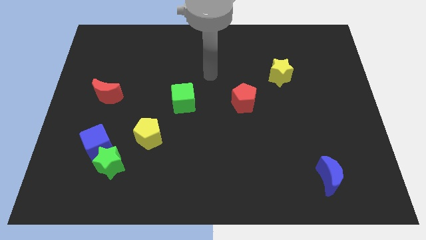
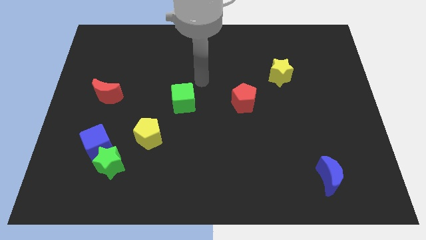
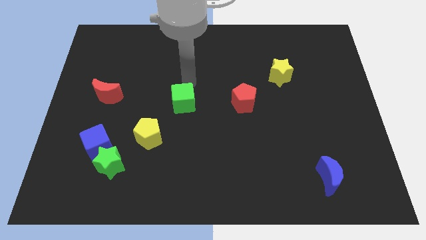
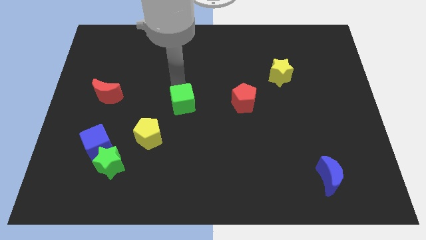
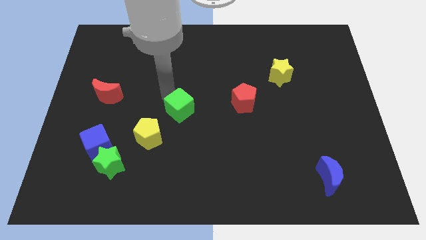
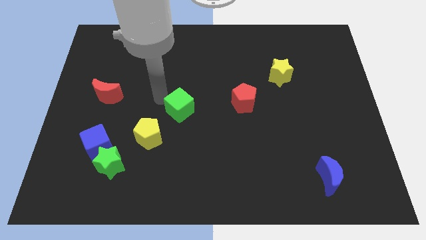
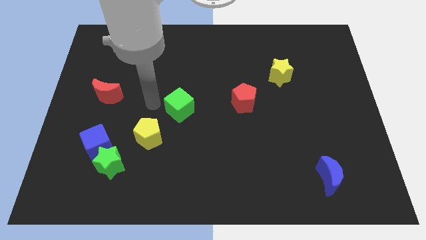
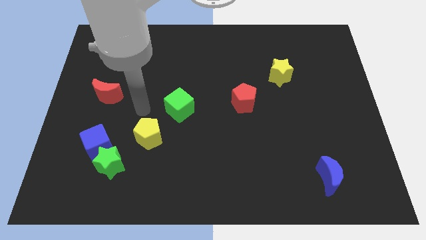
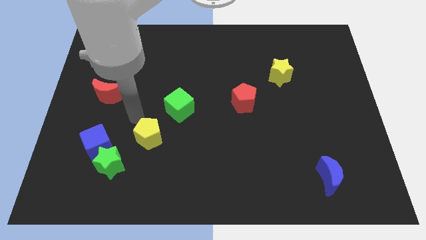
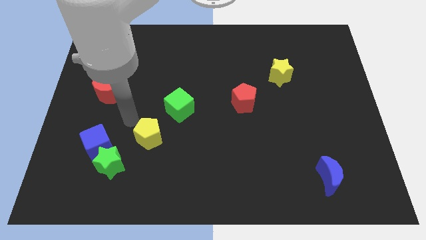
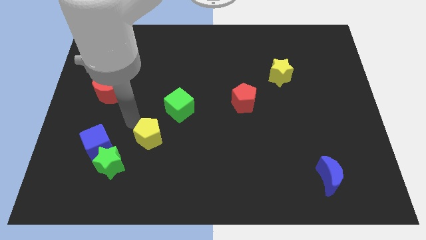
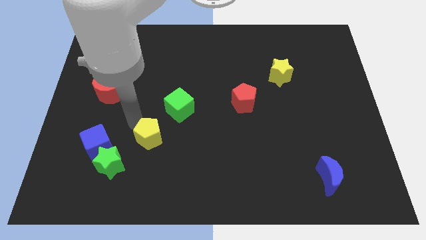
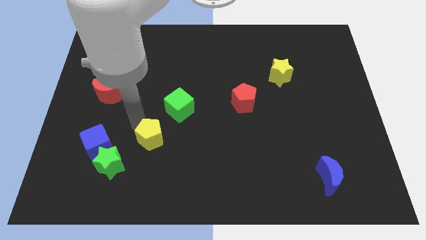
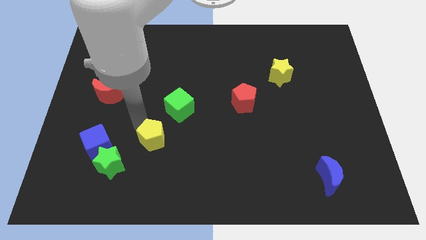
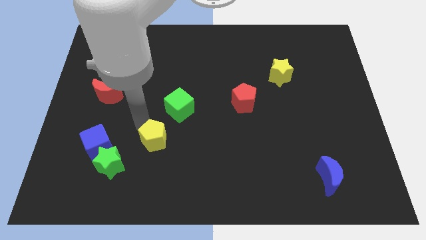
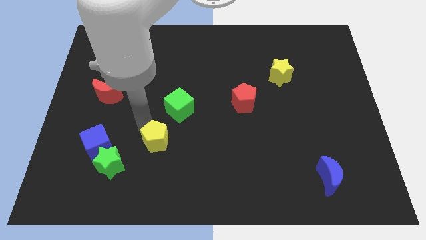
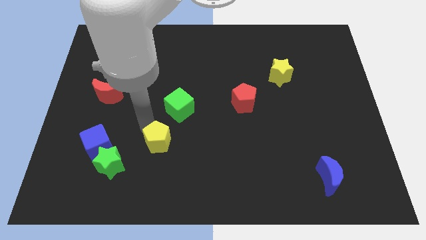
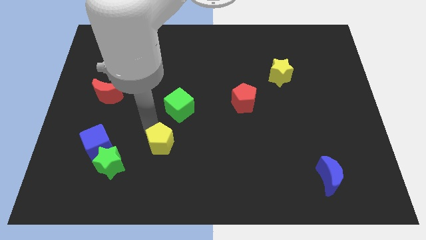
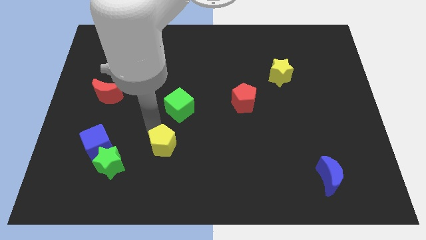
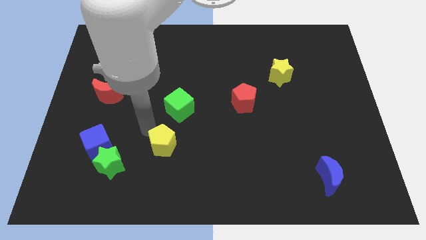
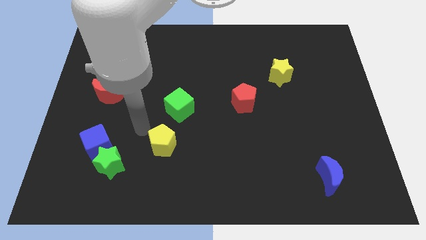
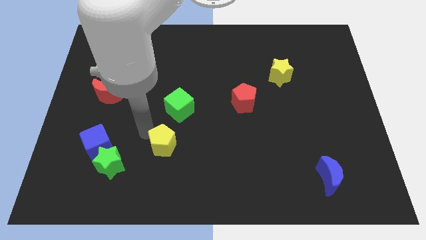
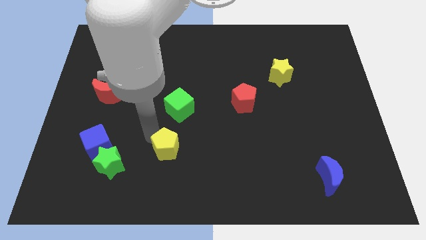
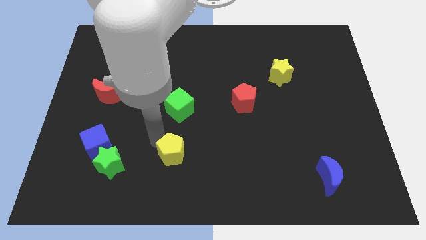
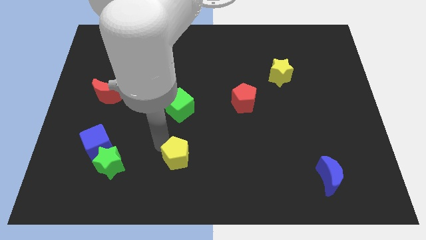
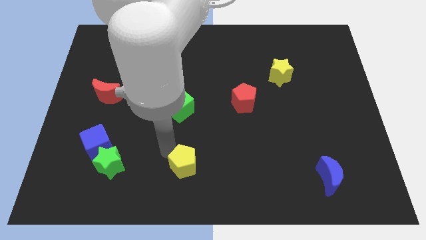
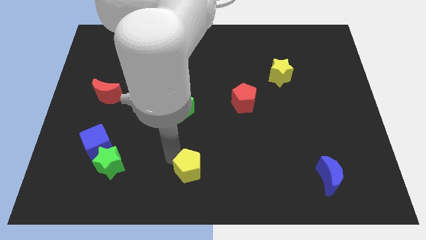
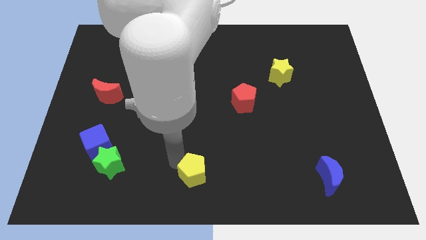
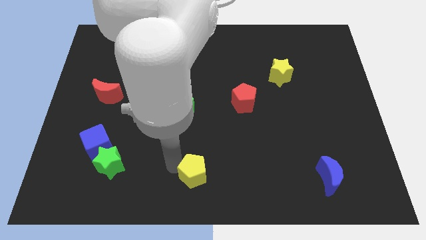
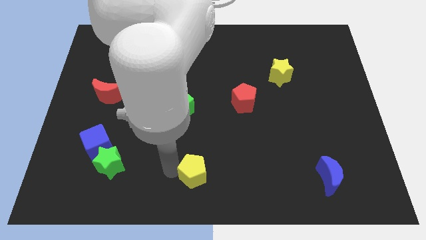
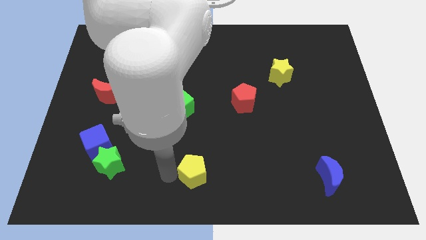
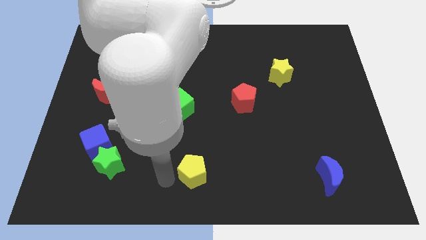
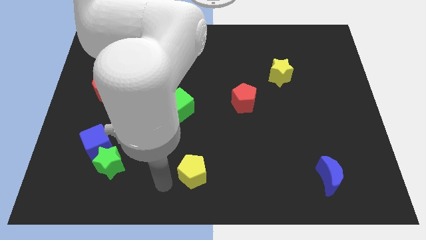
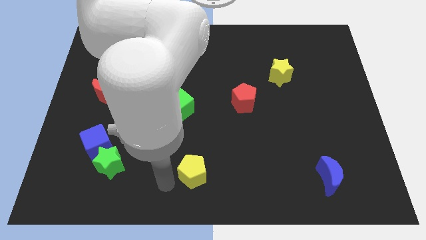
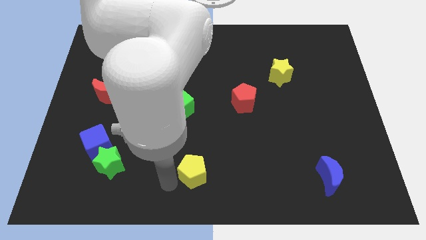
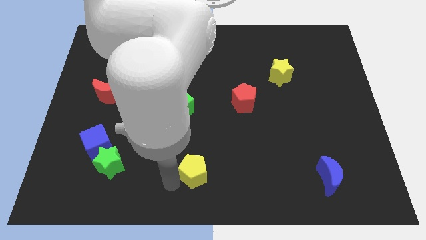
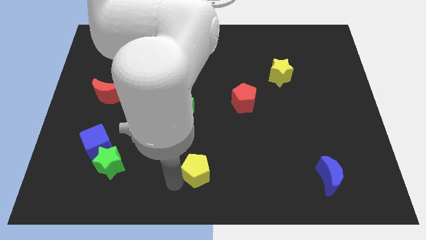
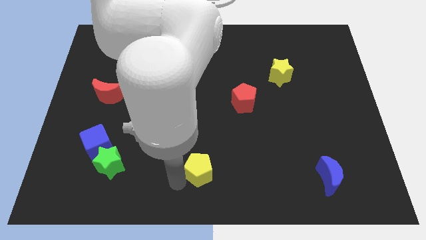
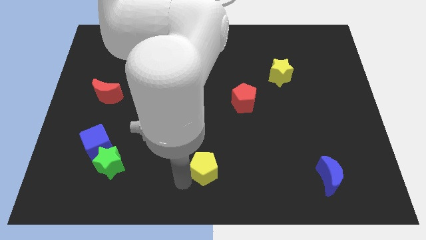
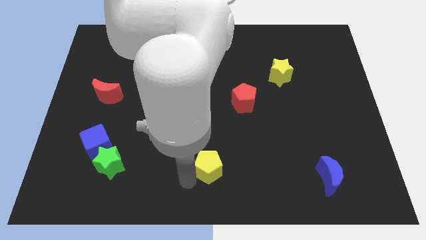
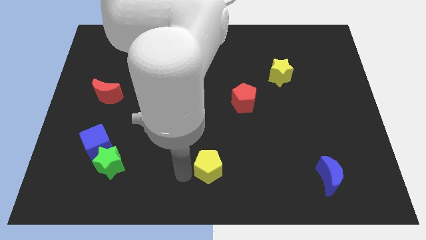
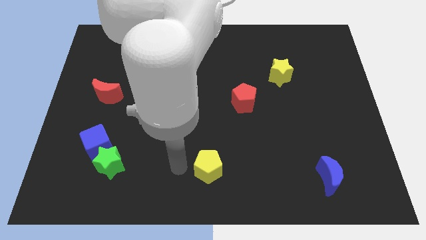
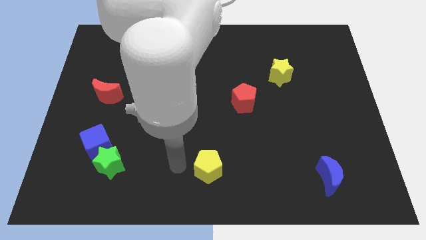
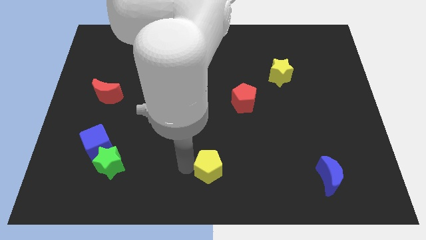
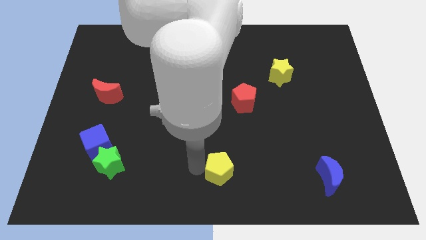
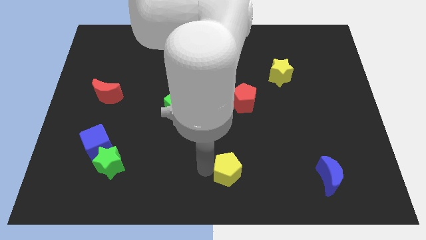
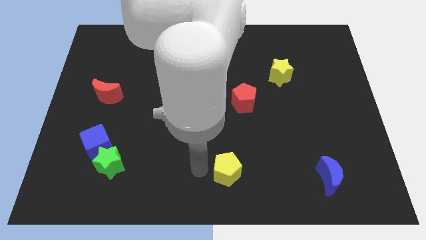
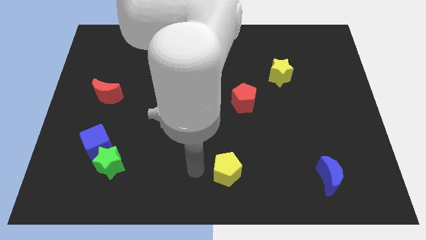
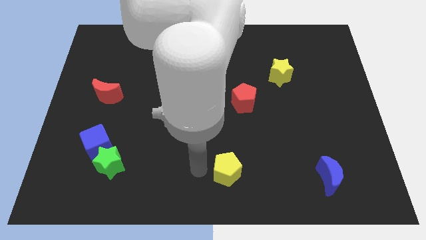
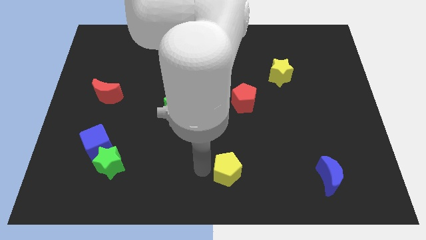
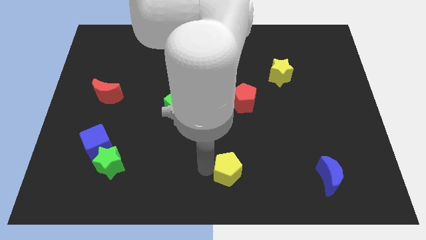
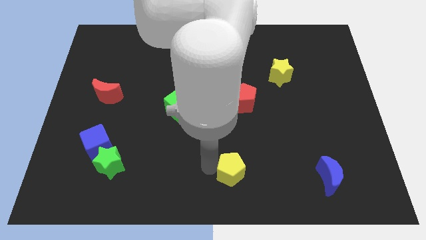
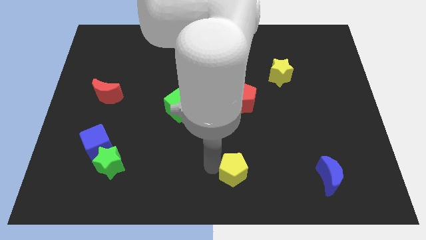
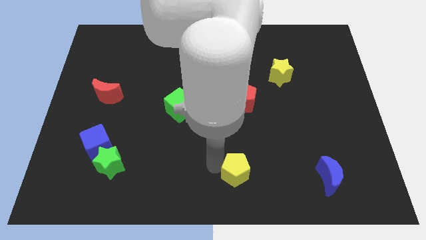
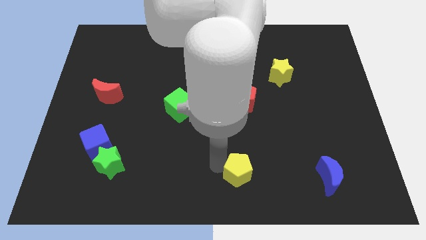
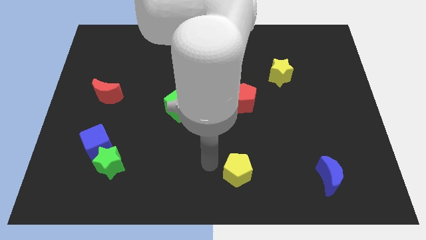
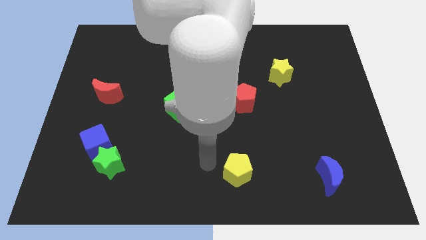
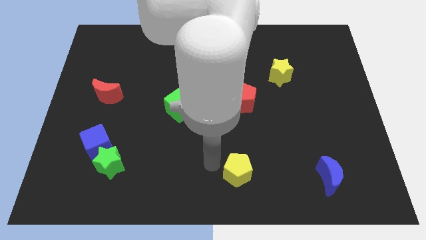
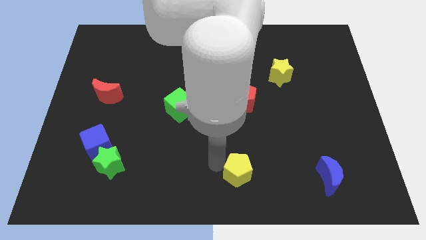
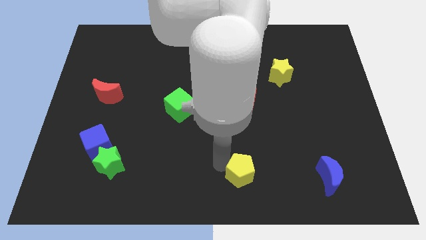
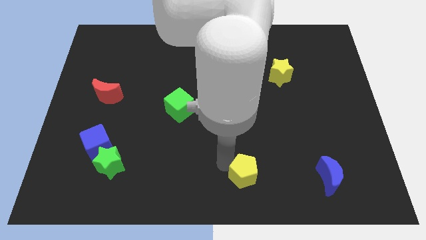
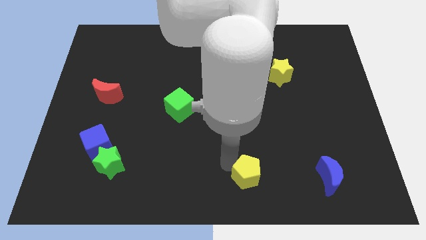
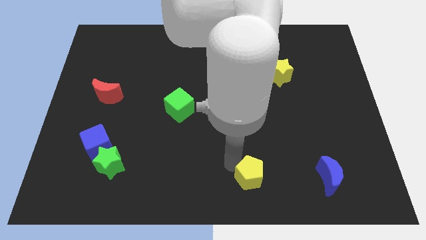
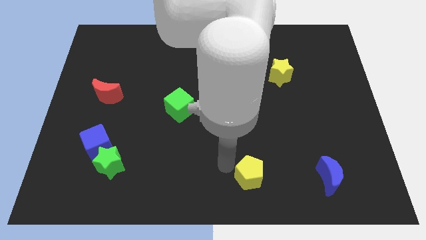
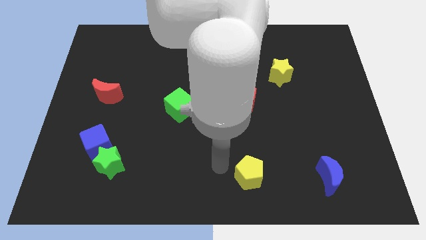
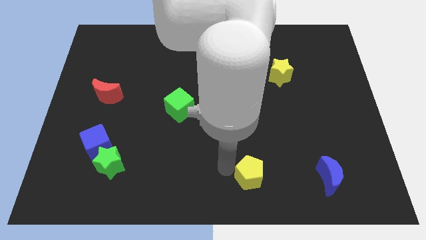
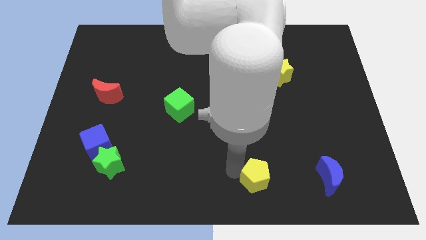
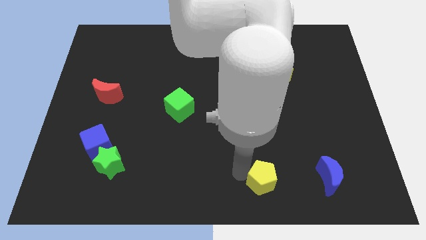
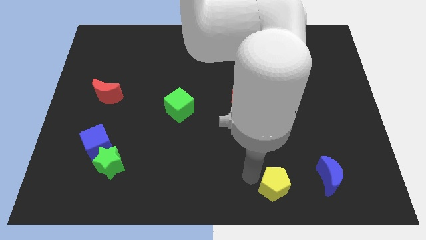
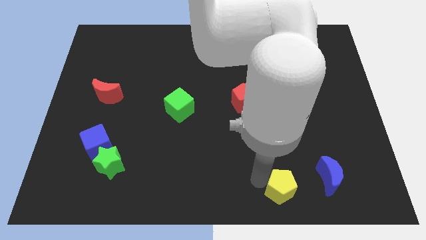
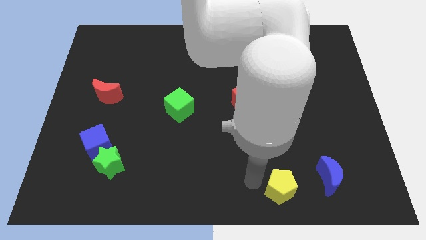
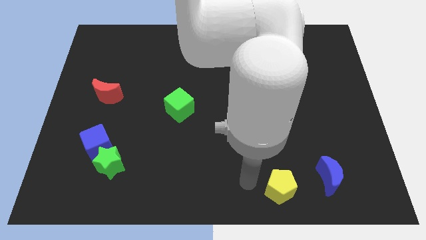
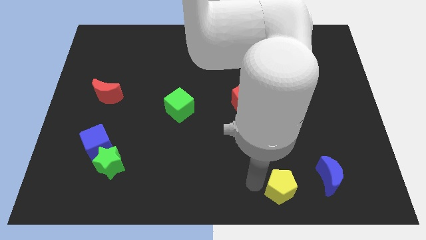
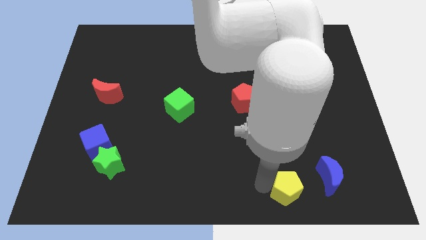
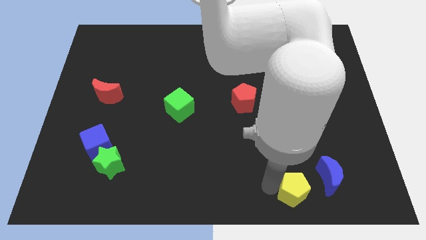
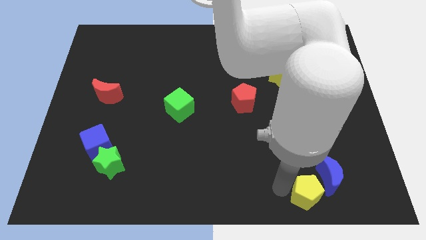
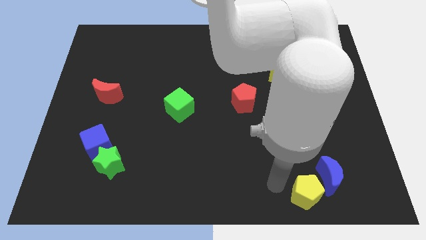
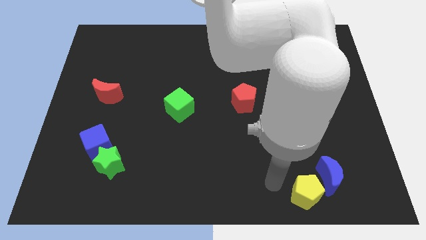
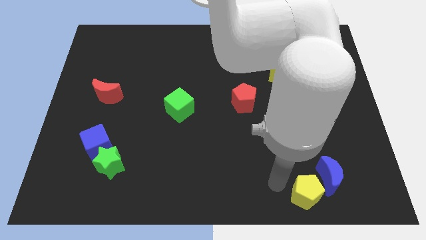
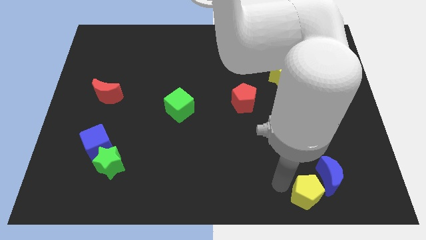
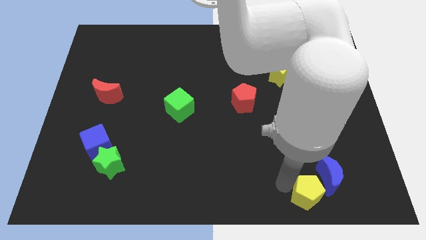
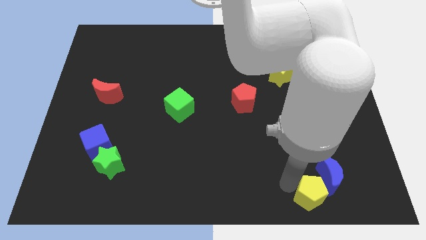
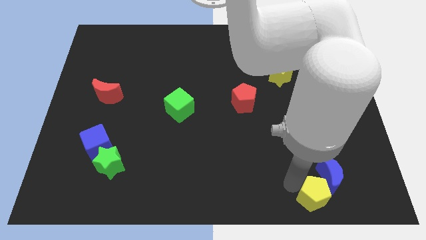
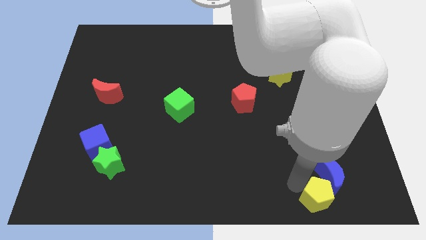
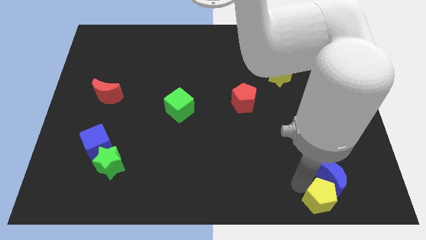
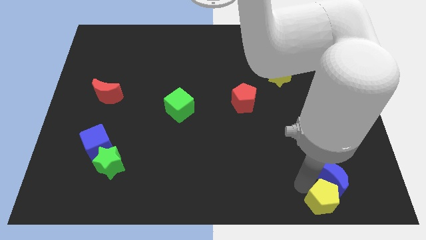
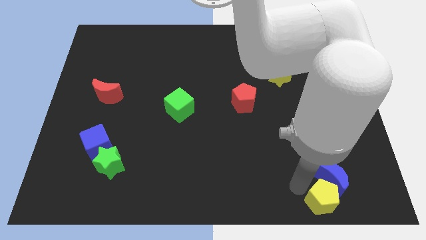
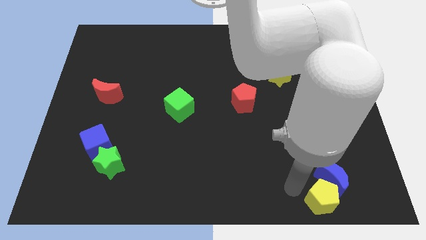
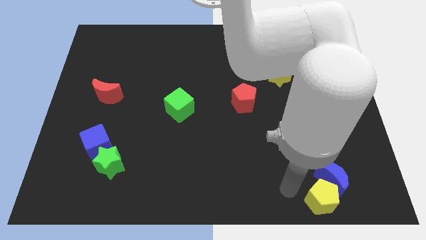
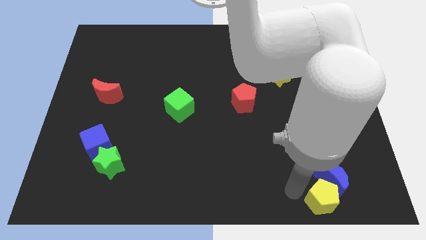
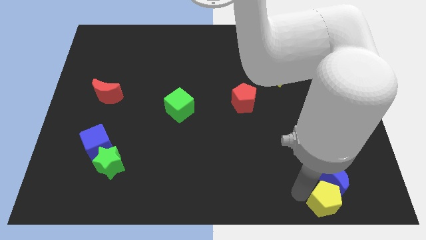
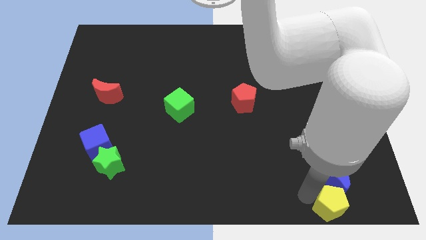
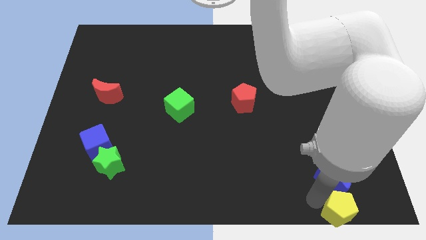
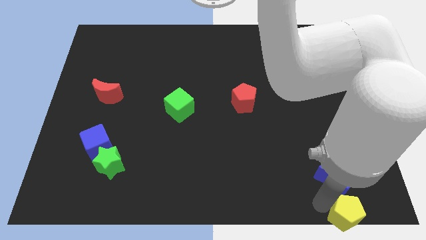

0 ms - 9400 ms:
slide the yellow pentagon to the lower right corner
